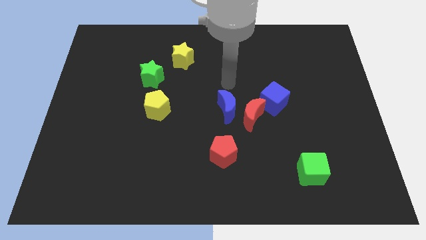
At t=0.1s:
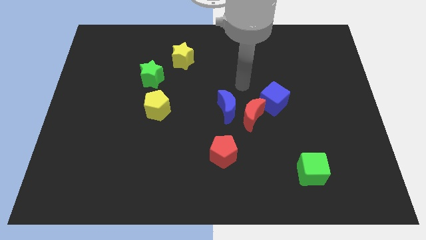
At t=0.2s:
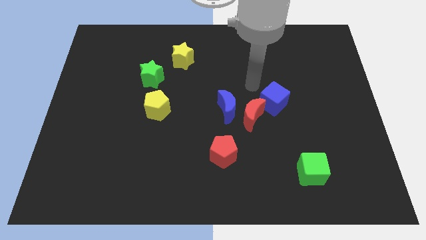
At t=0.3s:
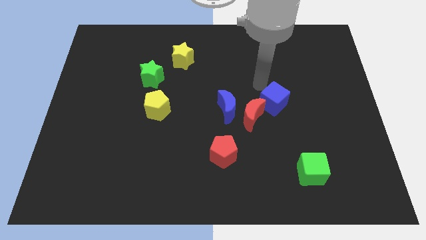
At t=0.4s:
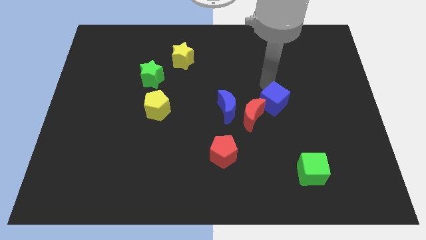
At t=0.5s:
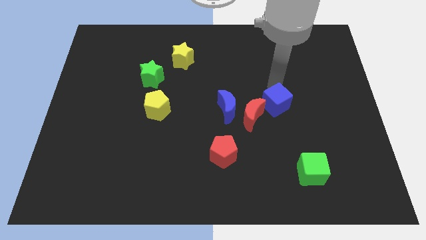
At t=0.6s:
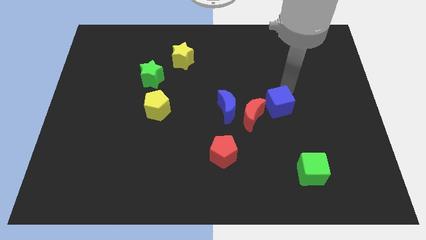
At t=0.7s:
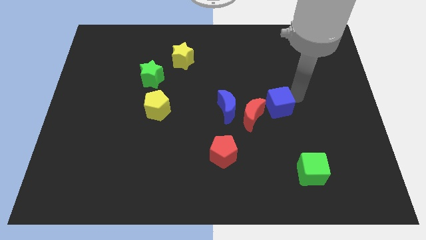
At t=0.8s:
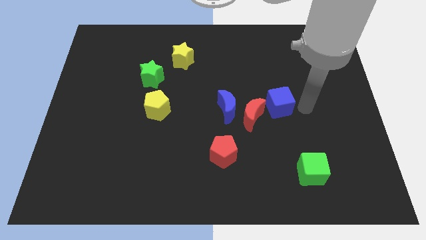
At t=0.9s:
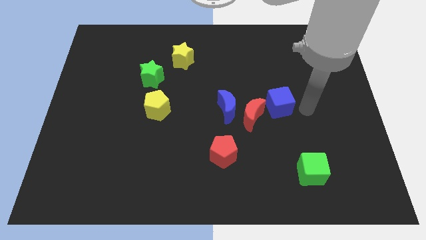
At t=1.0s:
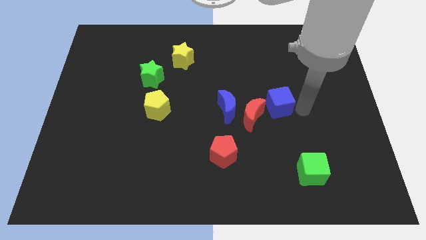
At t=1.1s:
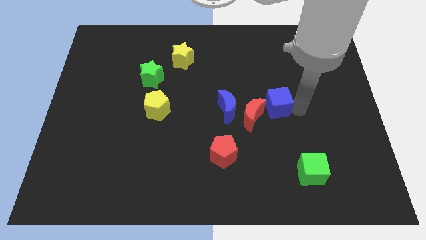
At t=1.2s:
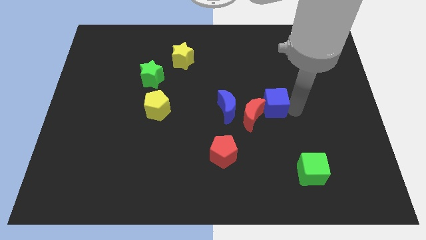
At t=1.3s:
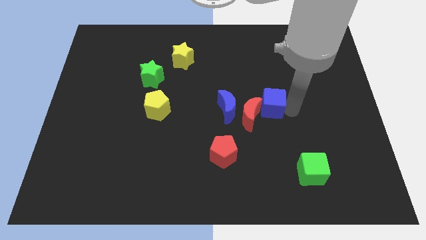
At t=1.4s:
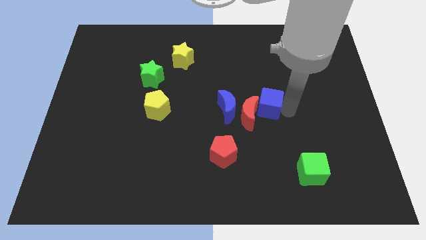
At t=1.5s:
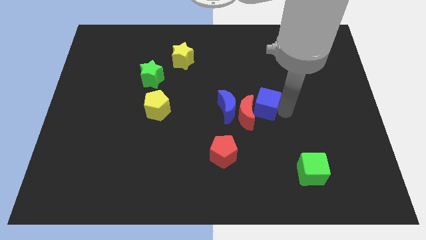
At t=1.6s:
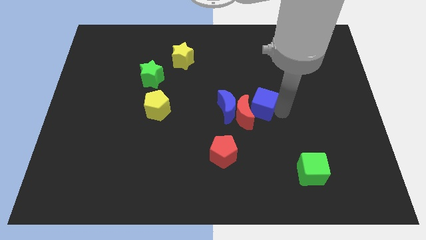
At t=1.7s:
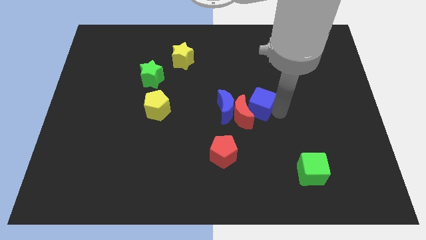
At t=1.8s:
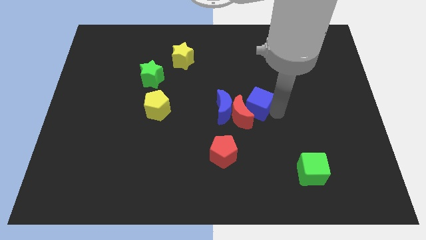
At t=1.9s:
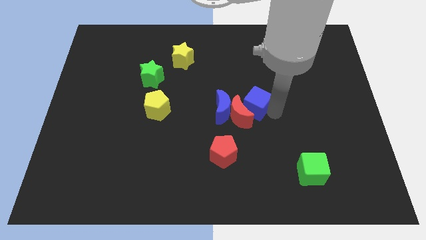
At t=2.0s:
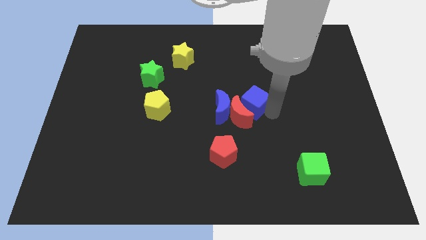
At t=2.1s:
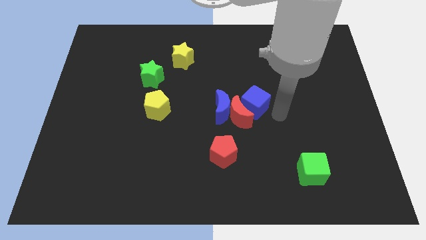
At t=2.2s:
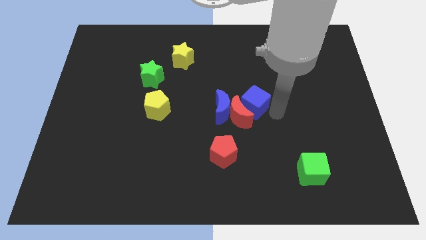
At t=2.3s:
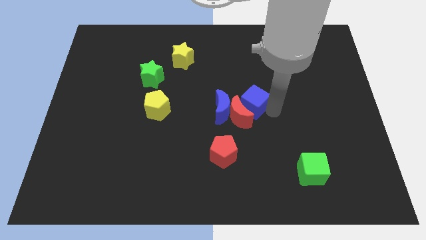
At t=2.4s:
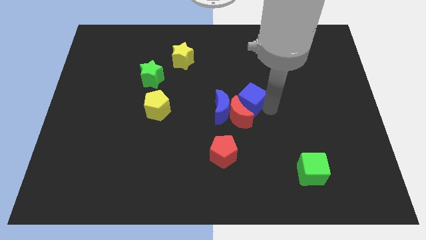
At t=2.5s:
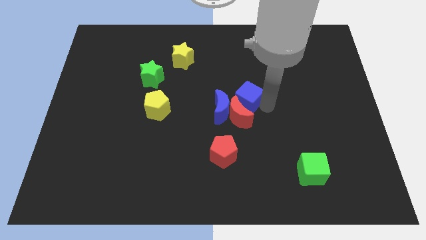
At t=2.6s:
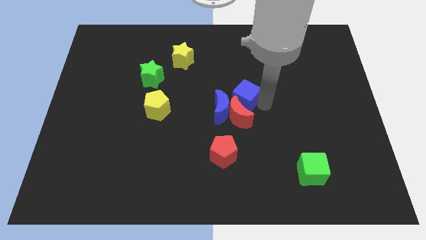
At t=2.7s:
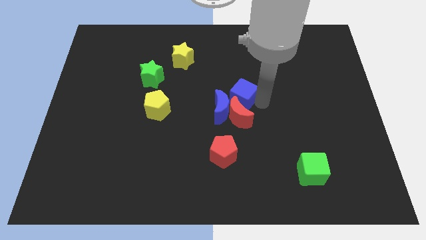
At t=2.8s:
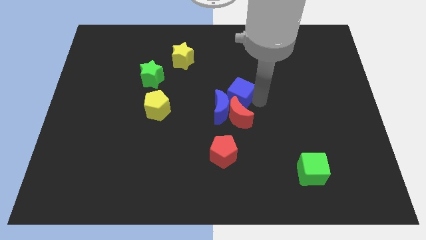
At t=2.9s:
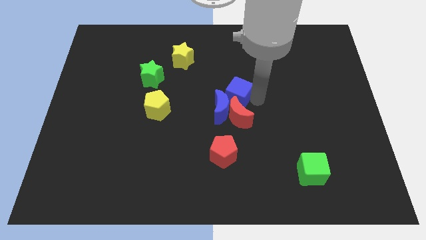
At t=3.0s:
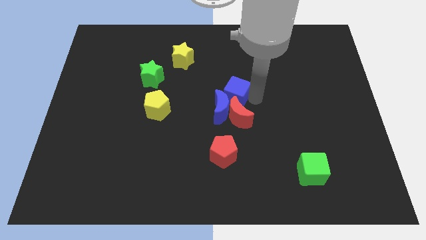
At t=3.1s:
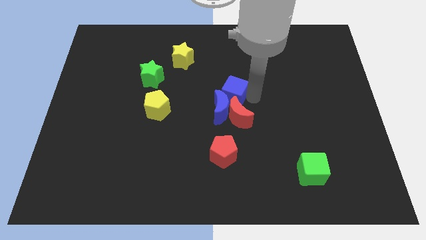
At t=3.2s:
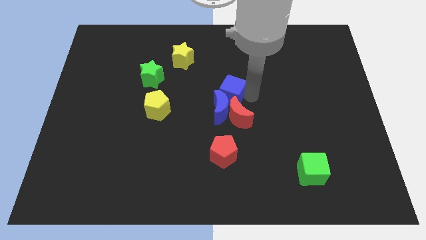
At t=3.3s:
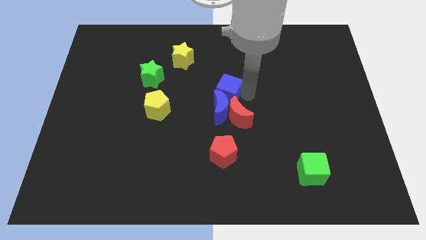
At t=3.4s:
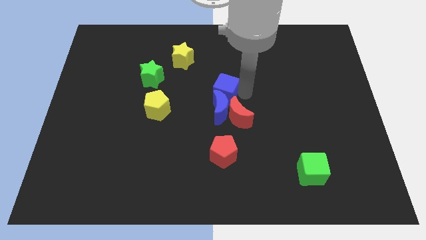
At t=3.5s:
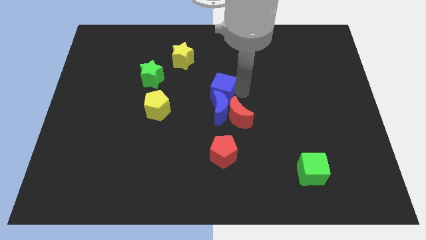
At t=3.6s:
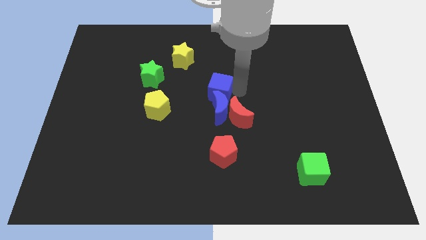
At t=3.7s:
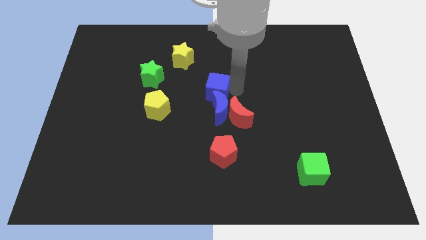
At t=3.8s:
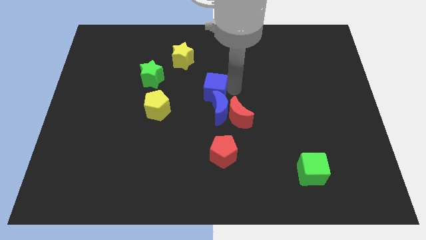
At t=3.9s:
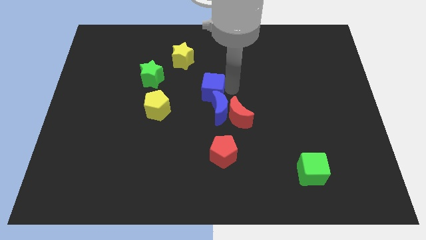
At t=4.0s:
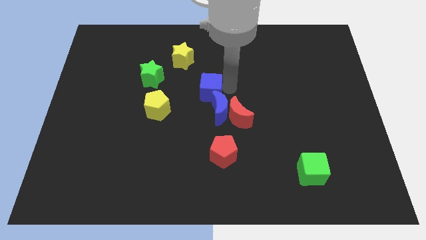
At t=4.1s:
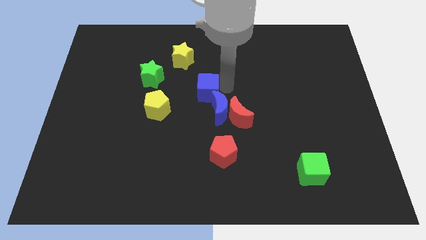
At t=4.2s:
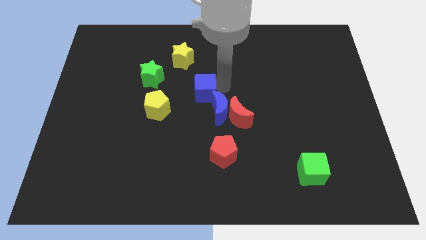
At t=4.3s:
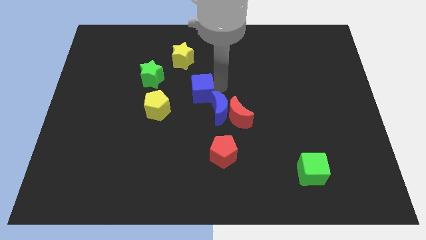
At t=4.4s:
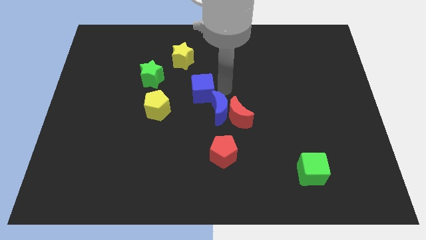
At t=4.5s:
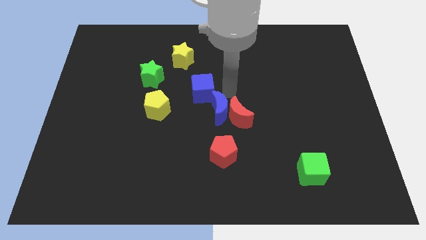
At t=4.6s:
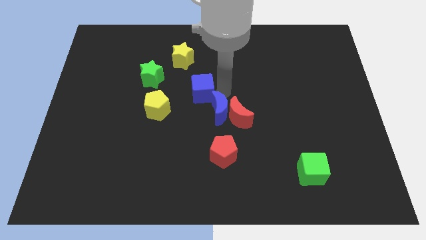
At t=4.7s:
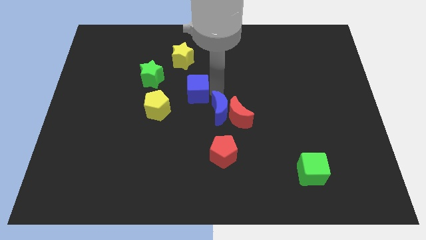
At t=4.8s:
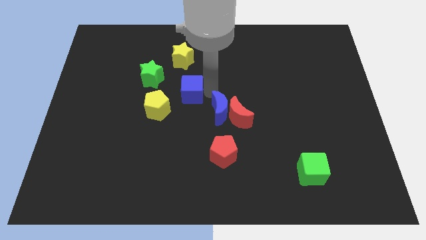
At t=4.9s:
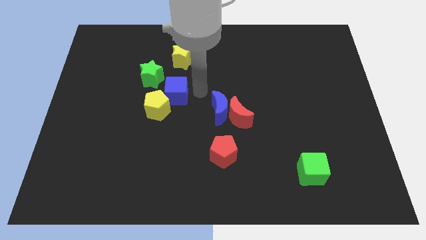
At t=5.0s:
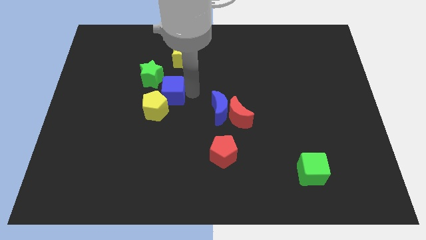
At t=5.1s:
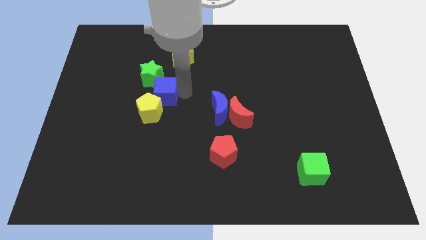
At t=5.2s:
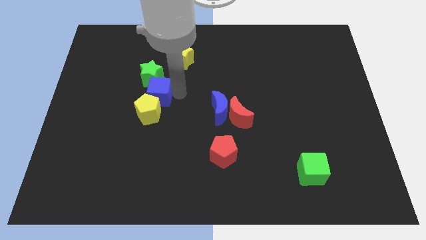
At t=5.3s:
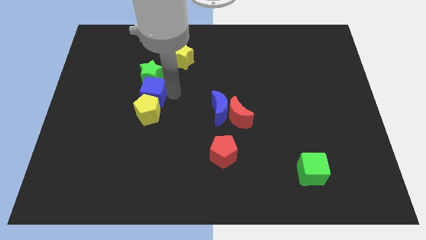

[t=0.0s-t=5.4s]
push the blue cube diagonally down and to the left of the green star

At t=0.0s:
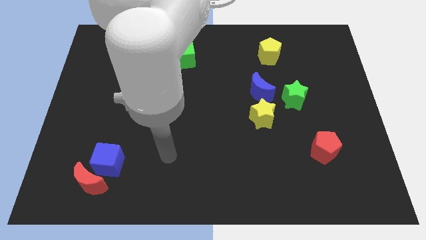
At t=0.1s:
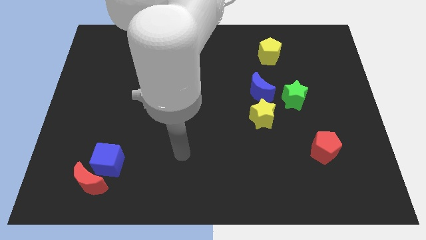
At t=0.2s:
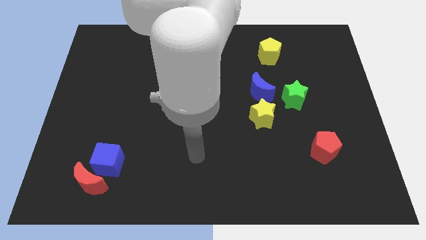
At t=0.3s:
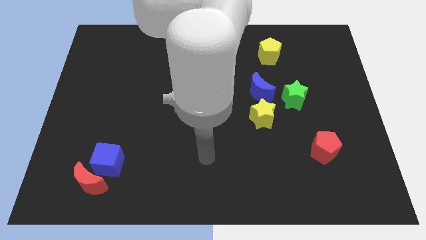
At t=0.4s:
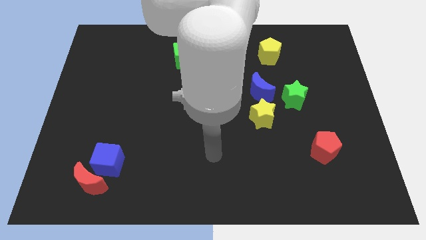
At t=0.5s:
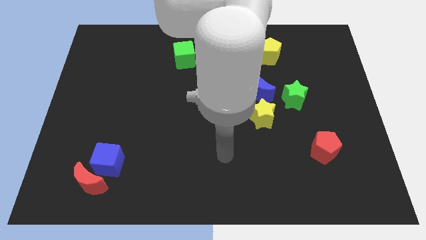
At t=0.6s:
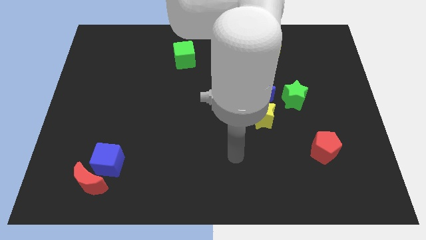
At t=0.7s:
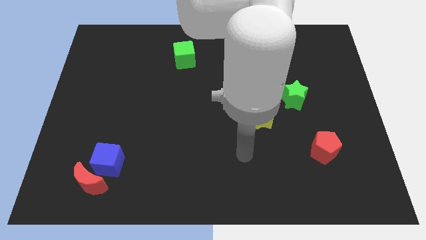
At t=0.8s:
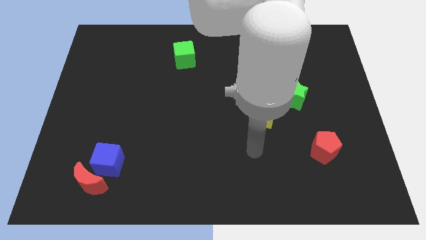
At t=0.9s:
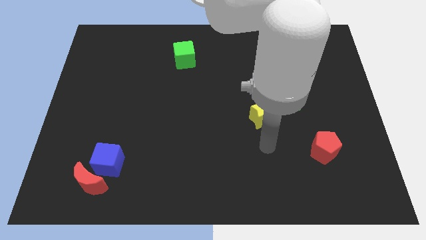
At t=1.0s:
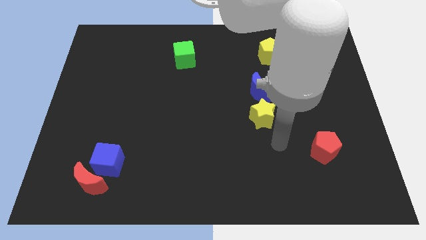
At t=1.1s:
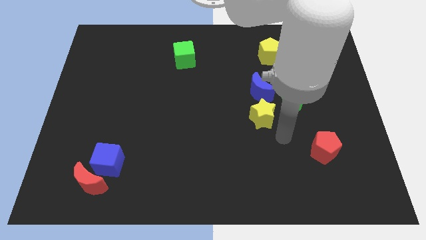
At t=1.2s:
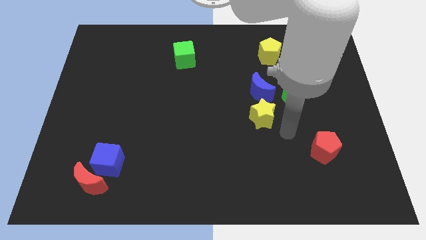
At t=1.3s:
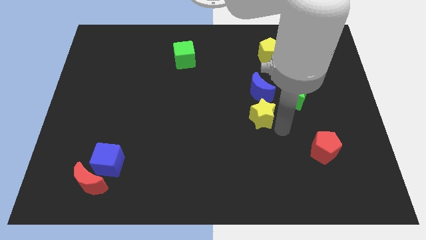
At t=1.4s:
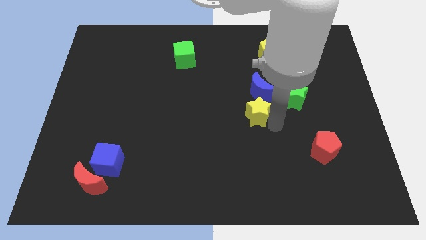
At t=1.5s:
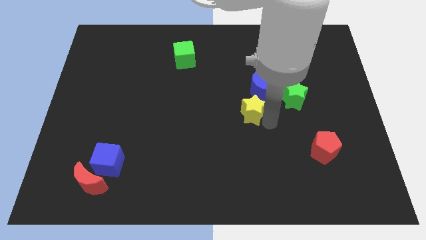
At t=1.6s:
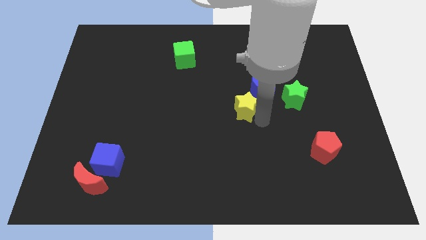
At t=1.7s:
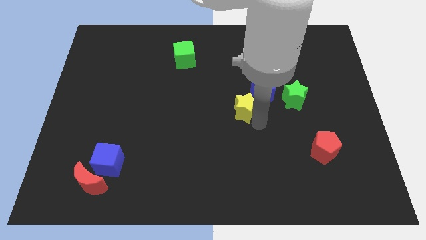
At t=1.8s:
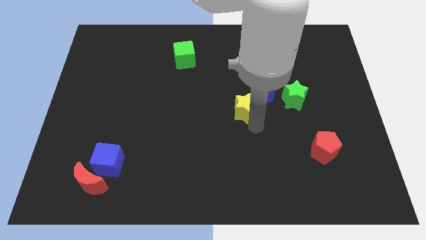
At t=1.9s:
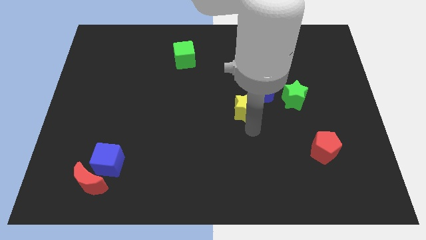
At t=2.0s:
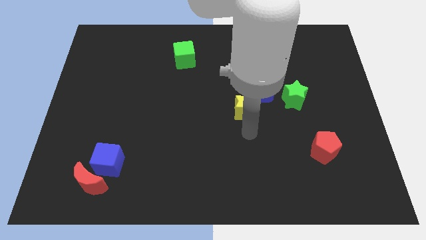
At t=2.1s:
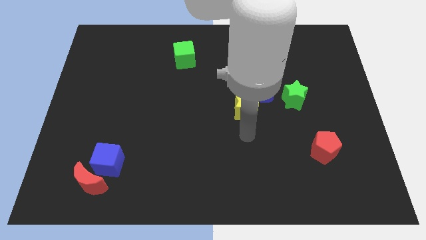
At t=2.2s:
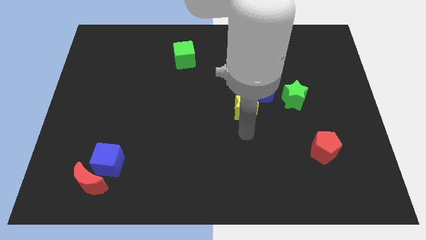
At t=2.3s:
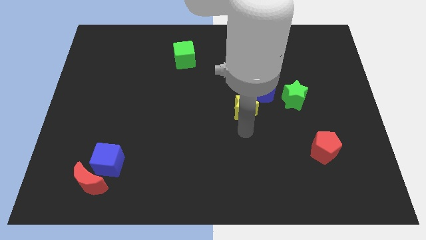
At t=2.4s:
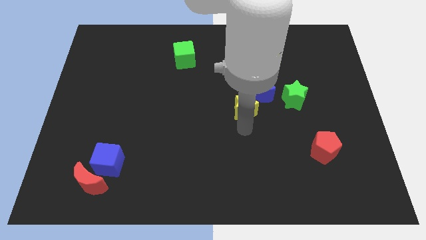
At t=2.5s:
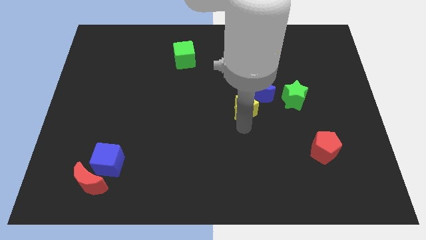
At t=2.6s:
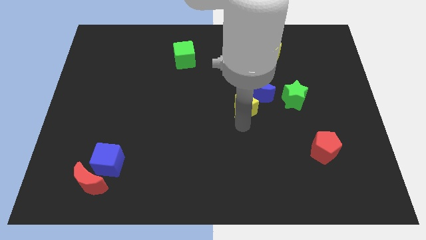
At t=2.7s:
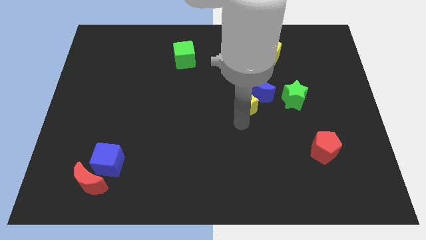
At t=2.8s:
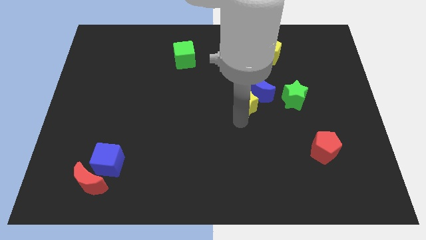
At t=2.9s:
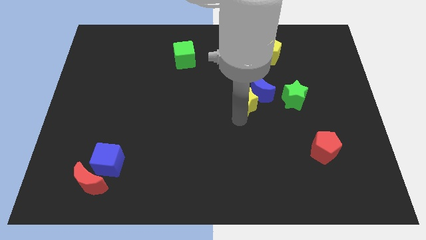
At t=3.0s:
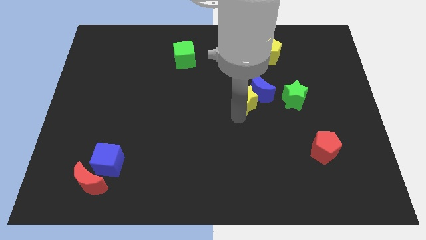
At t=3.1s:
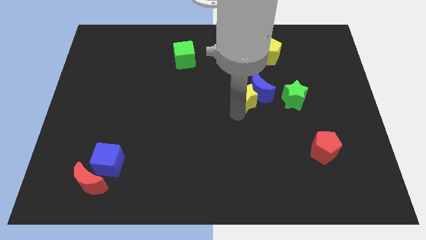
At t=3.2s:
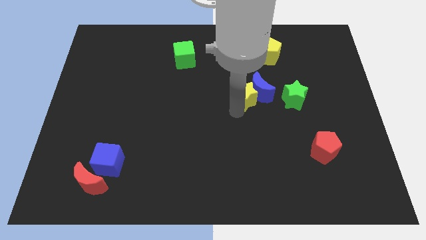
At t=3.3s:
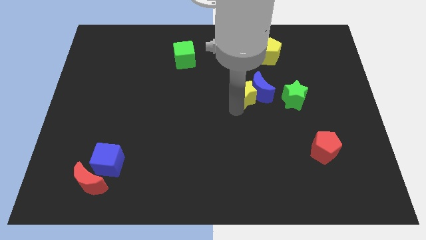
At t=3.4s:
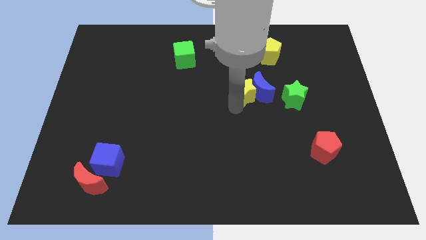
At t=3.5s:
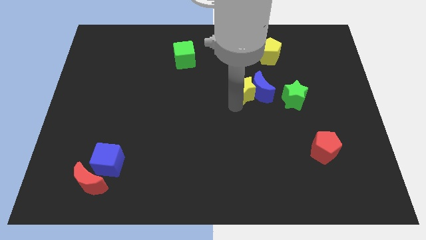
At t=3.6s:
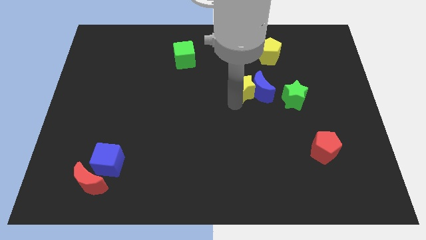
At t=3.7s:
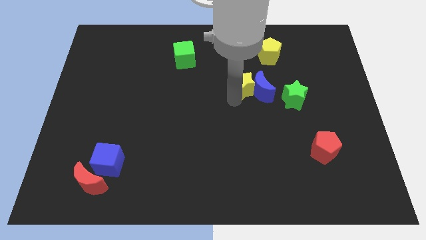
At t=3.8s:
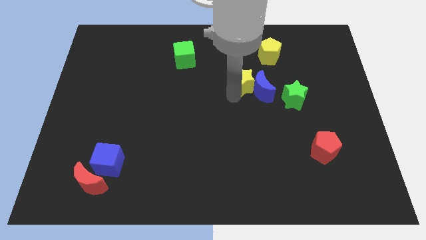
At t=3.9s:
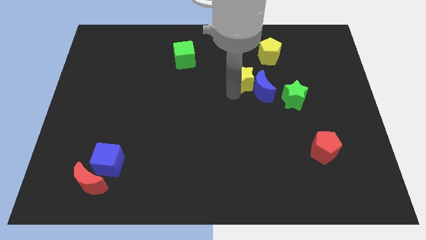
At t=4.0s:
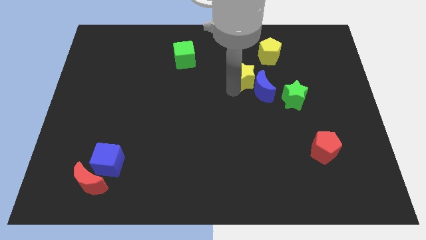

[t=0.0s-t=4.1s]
slide the yellow star to the top of the blue moon
